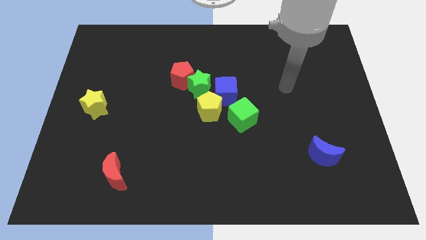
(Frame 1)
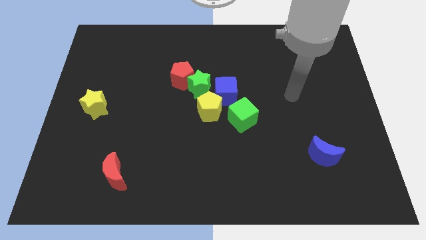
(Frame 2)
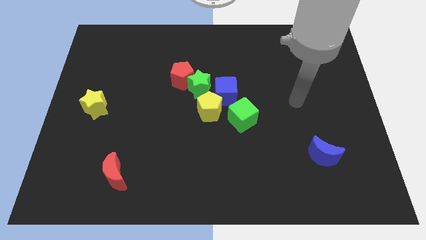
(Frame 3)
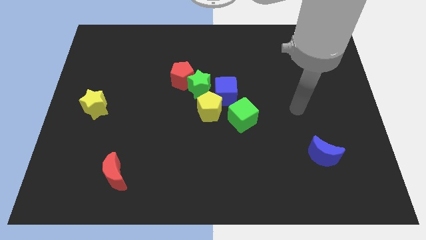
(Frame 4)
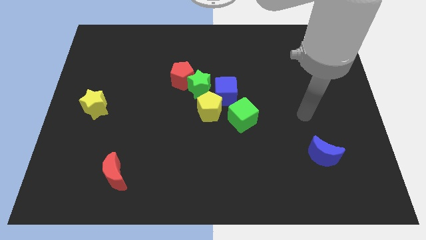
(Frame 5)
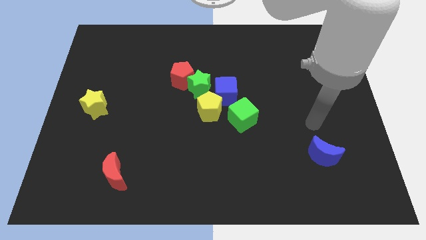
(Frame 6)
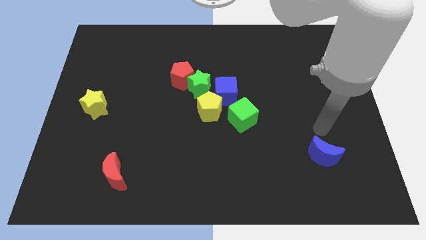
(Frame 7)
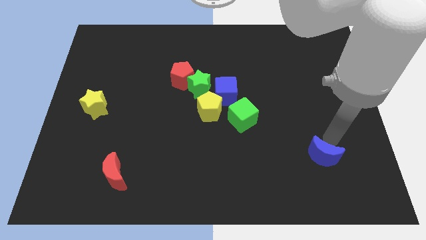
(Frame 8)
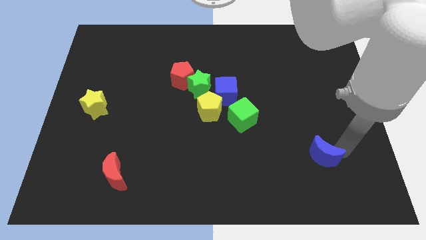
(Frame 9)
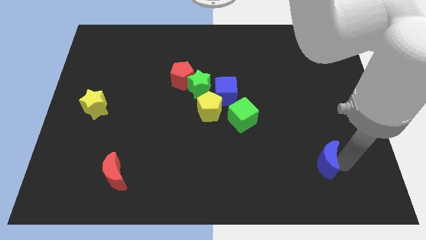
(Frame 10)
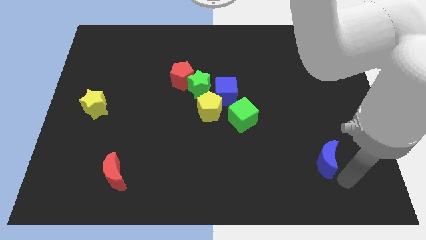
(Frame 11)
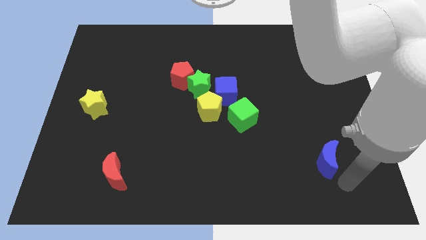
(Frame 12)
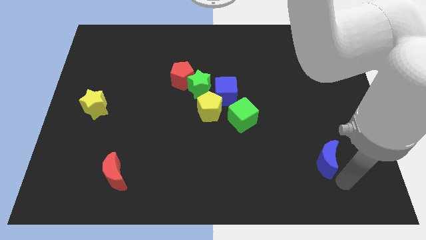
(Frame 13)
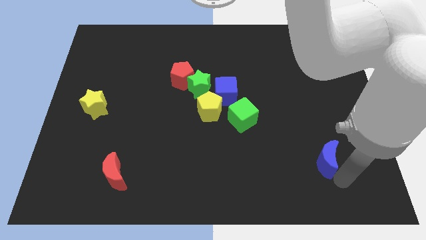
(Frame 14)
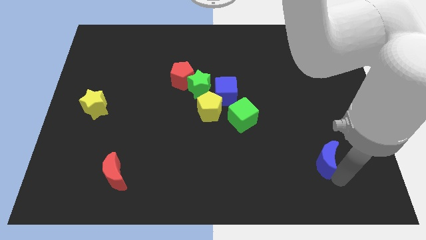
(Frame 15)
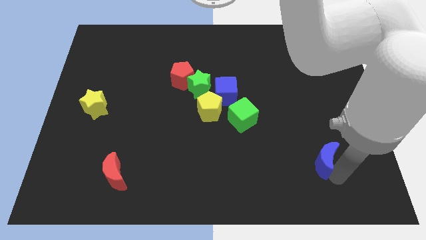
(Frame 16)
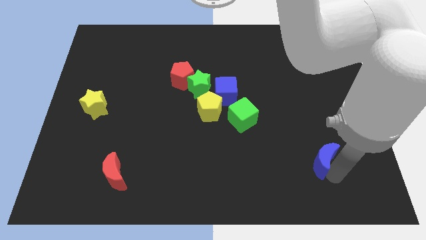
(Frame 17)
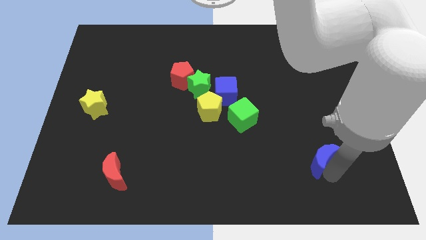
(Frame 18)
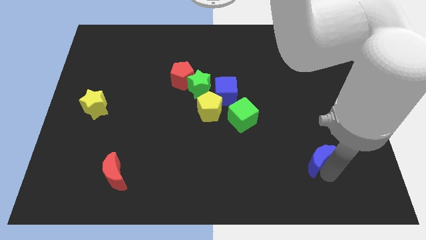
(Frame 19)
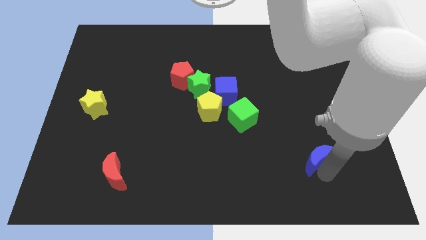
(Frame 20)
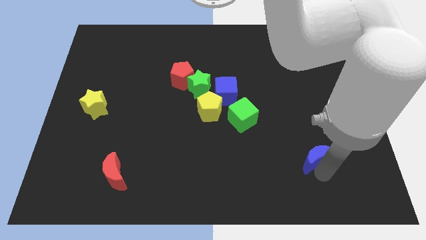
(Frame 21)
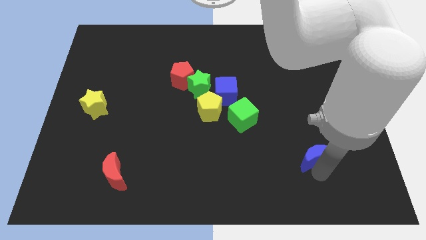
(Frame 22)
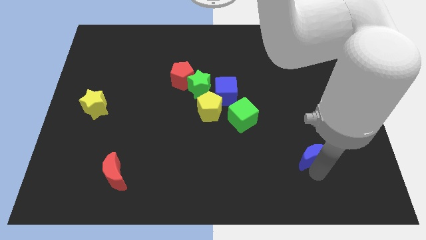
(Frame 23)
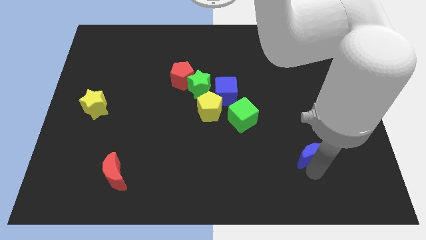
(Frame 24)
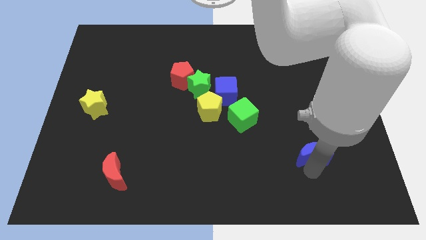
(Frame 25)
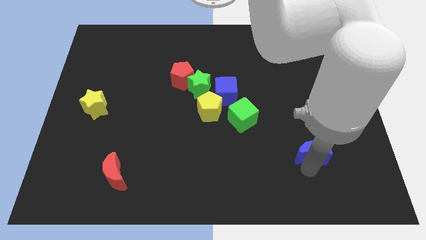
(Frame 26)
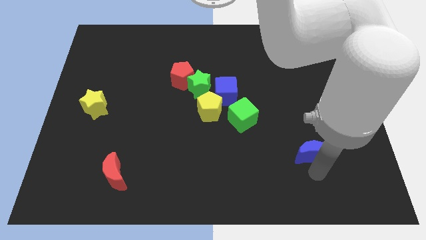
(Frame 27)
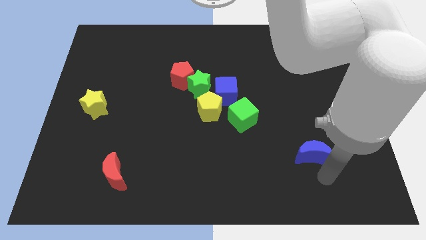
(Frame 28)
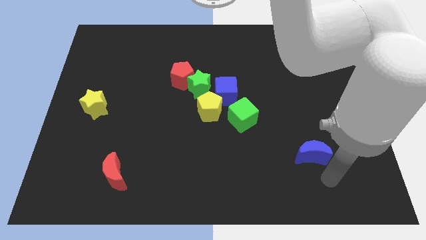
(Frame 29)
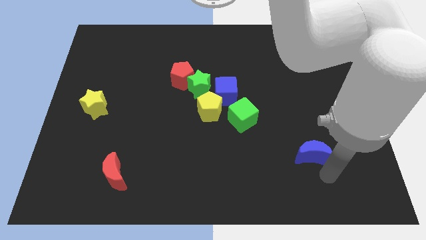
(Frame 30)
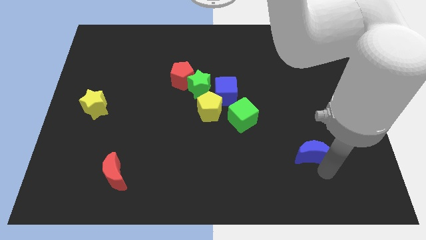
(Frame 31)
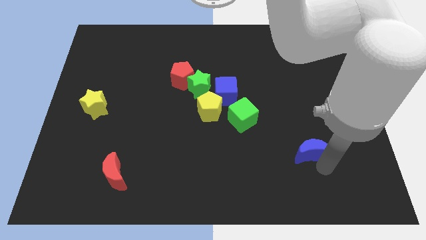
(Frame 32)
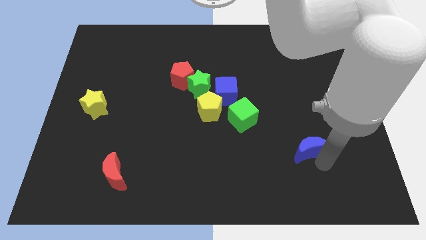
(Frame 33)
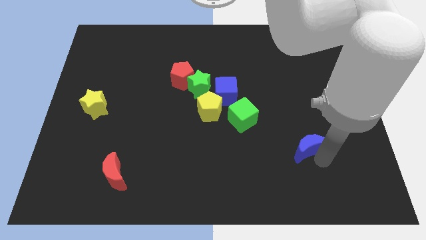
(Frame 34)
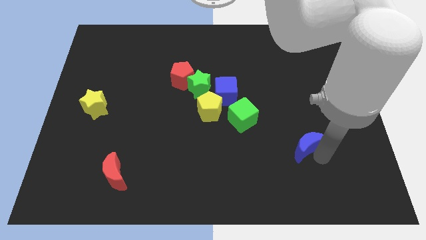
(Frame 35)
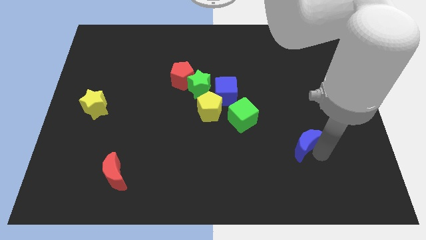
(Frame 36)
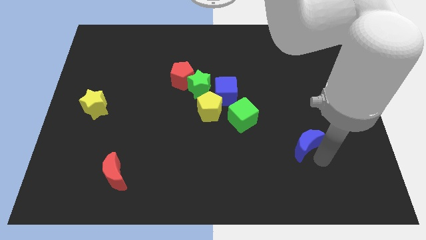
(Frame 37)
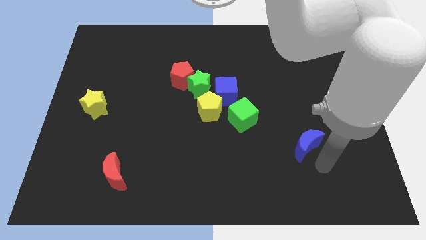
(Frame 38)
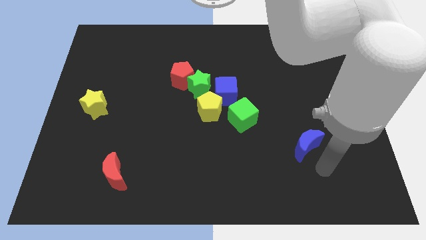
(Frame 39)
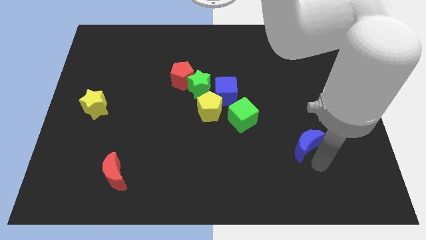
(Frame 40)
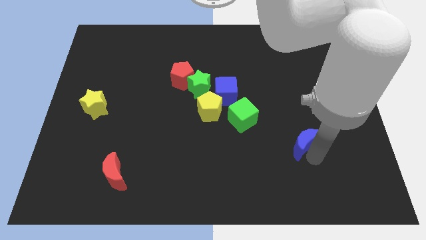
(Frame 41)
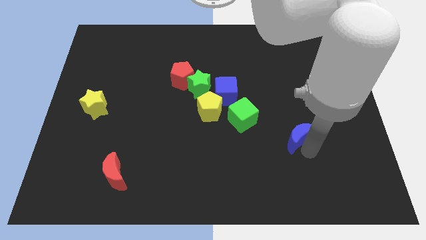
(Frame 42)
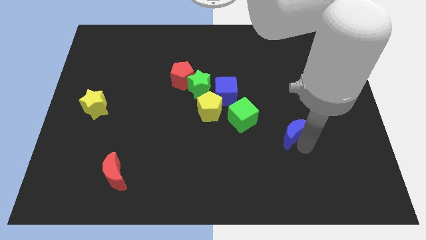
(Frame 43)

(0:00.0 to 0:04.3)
slide the blue moon somewhat up and left

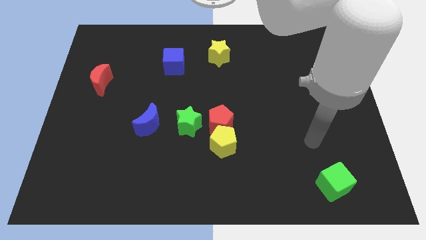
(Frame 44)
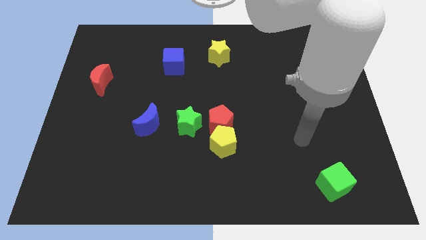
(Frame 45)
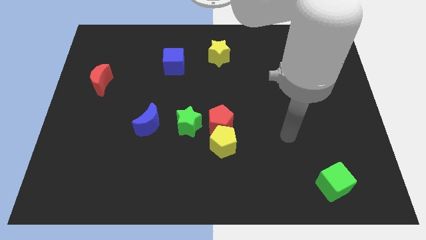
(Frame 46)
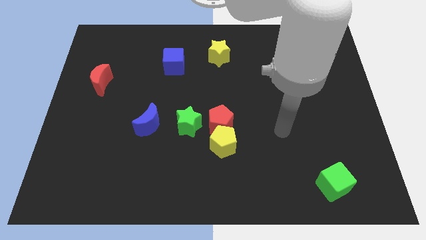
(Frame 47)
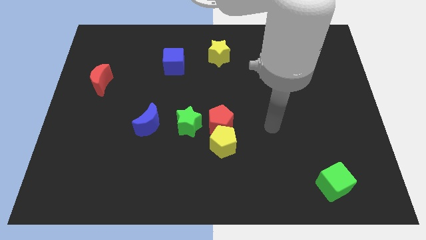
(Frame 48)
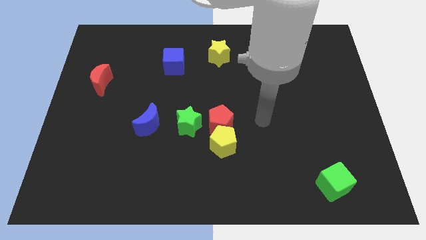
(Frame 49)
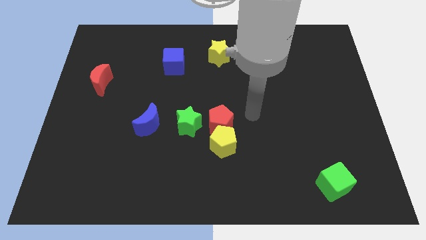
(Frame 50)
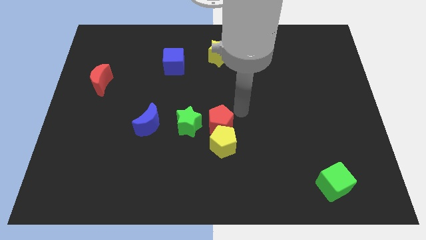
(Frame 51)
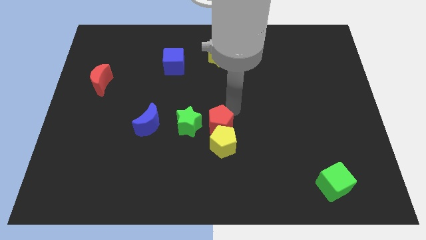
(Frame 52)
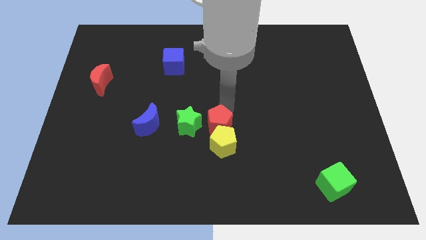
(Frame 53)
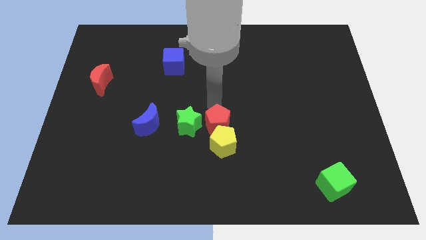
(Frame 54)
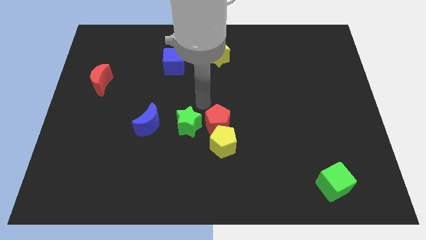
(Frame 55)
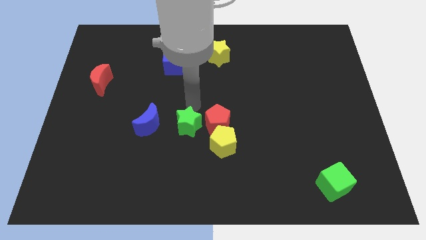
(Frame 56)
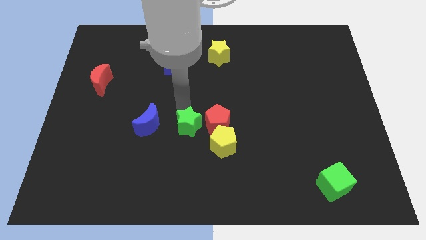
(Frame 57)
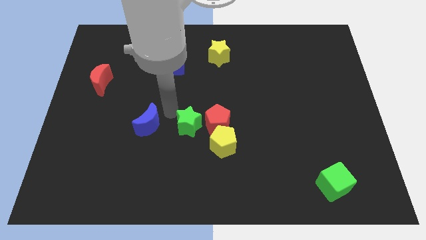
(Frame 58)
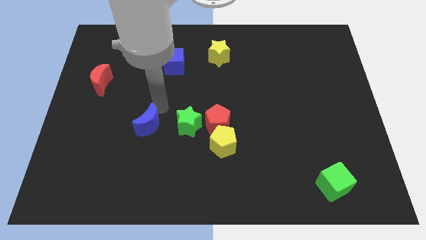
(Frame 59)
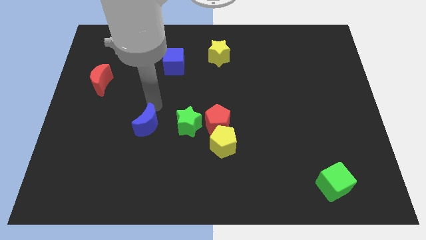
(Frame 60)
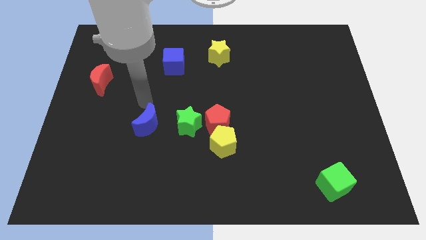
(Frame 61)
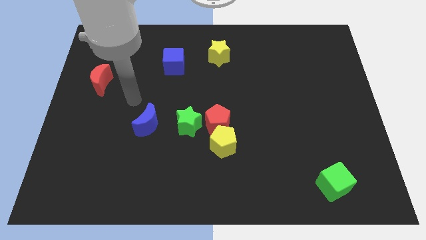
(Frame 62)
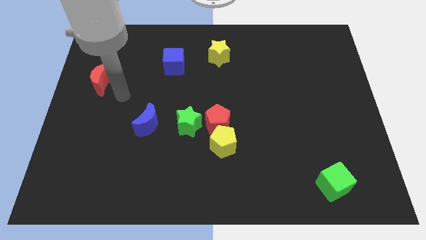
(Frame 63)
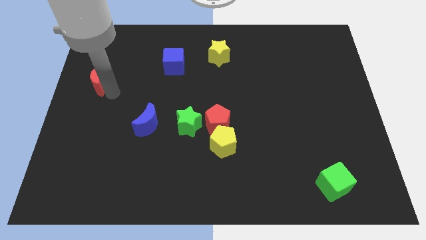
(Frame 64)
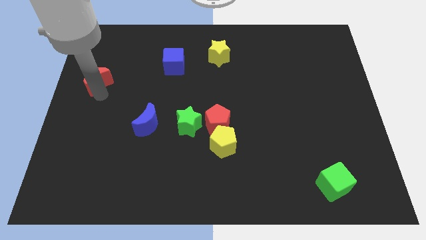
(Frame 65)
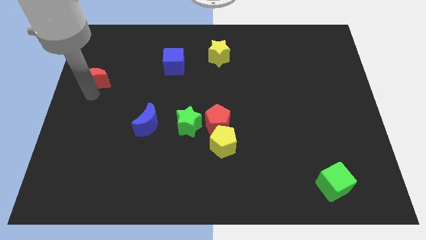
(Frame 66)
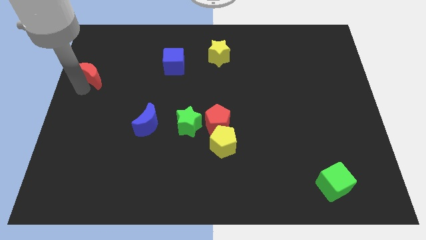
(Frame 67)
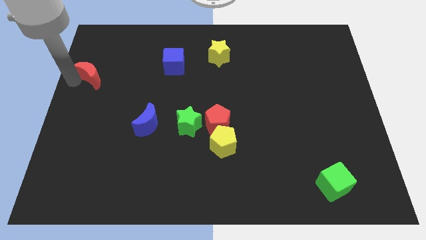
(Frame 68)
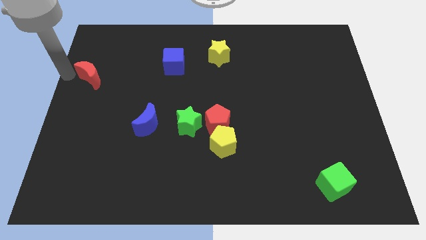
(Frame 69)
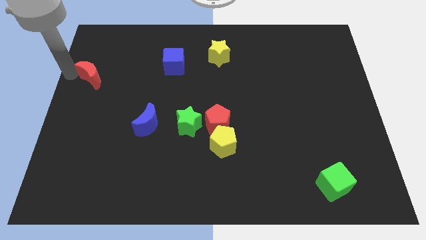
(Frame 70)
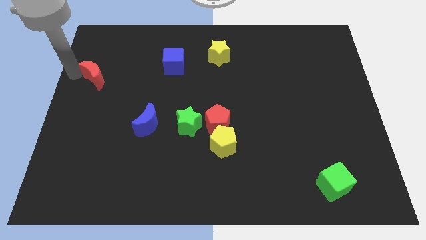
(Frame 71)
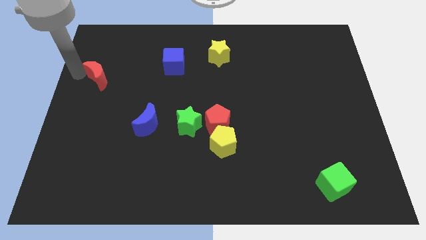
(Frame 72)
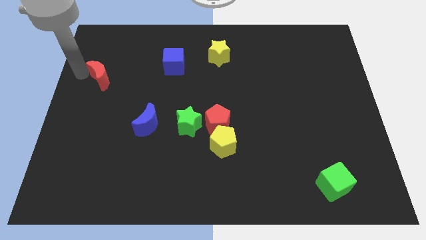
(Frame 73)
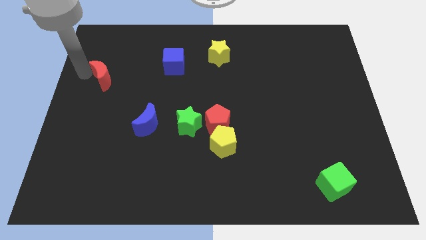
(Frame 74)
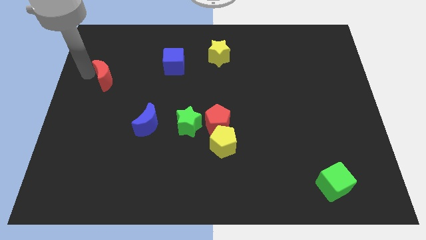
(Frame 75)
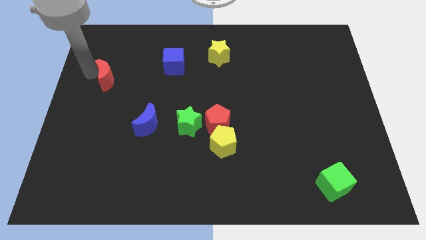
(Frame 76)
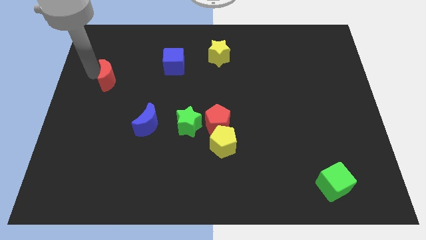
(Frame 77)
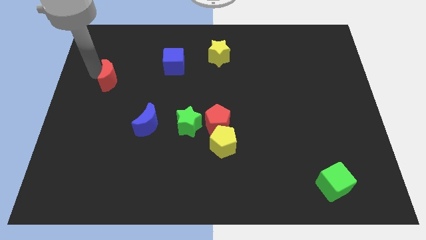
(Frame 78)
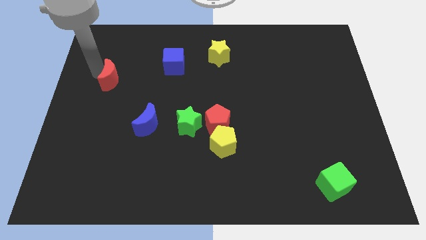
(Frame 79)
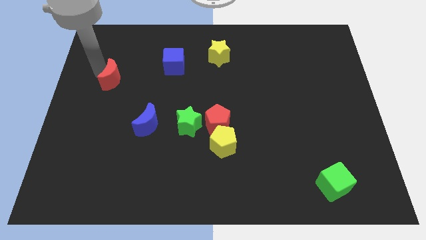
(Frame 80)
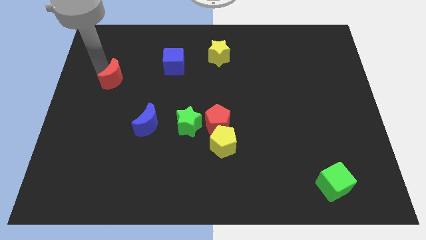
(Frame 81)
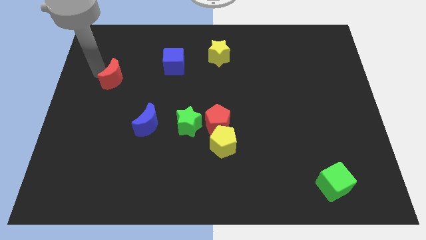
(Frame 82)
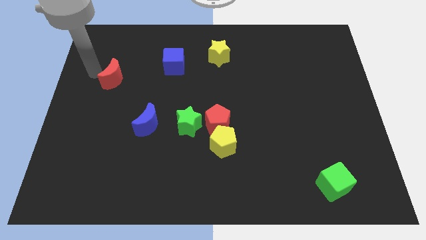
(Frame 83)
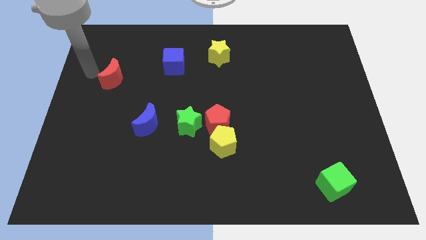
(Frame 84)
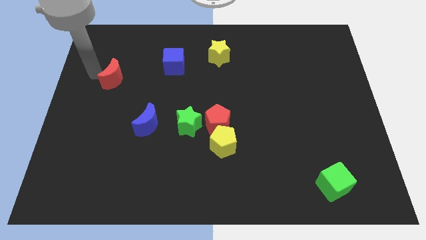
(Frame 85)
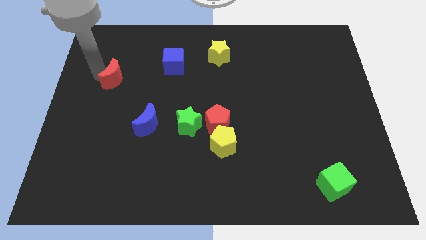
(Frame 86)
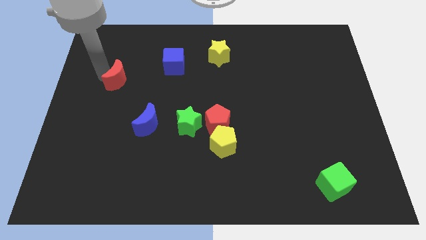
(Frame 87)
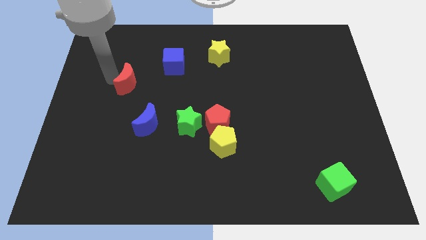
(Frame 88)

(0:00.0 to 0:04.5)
push the red moon a bit to the right
